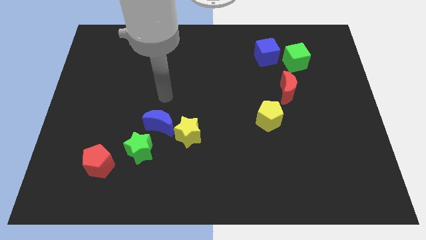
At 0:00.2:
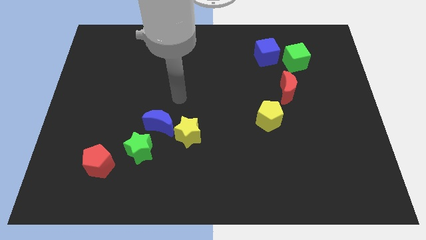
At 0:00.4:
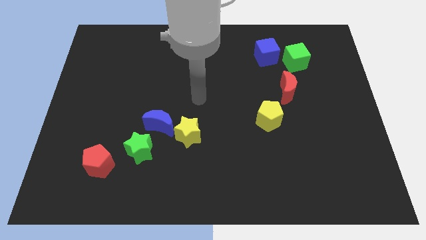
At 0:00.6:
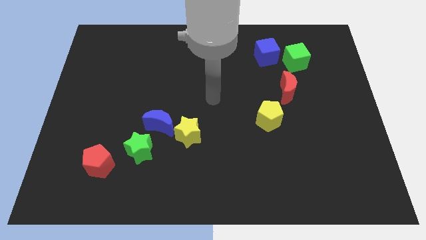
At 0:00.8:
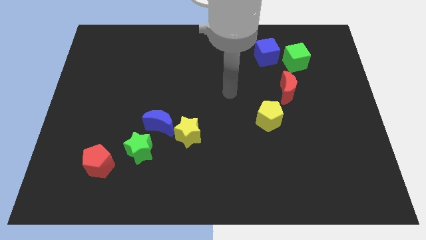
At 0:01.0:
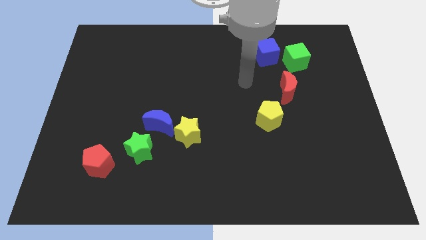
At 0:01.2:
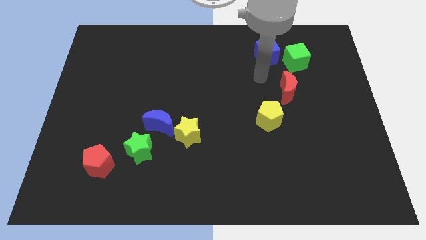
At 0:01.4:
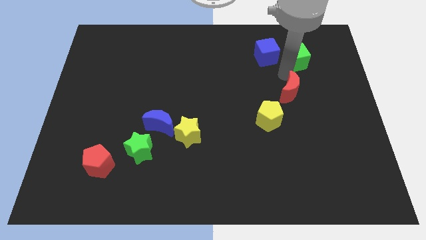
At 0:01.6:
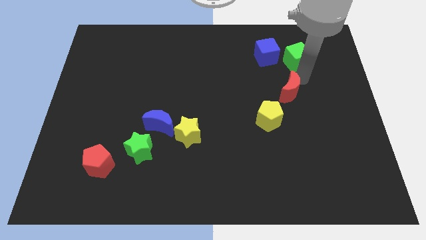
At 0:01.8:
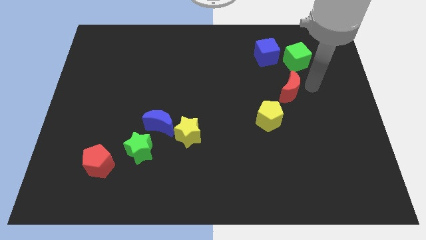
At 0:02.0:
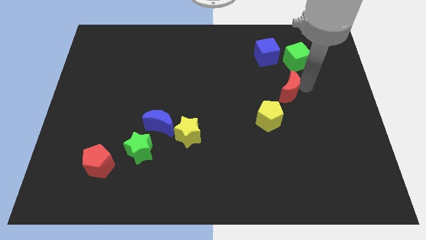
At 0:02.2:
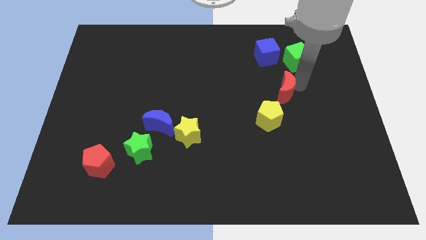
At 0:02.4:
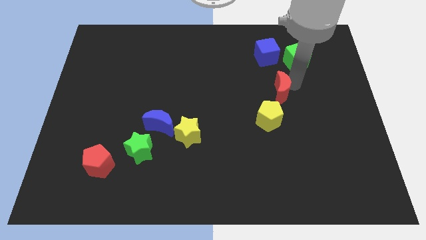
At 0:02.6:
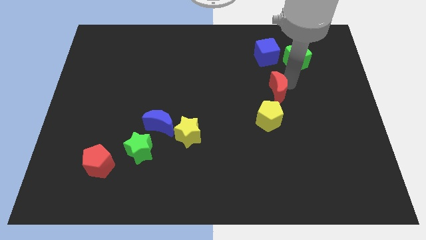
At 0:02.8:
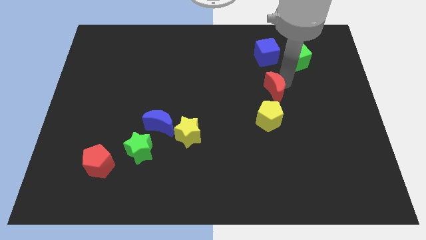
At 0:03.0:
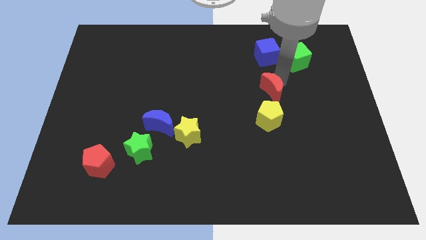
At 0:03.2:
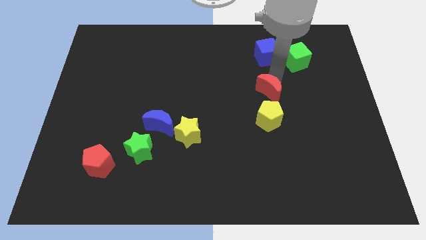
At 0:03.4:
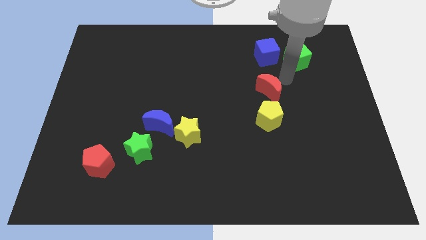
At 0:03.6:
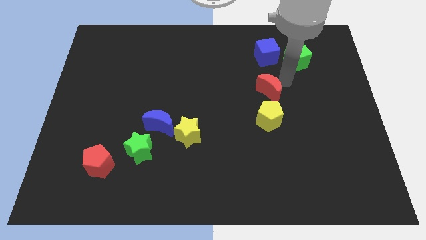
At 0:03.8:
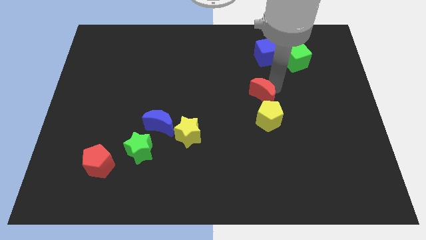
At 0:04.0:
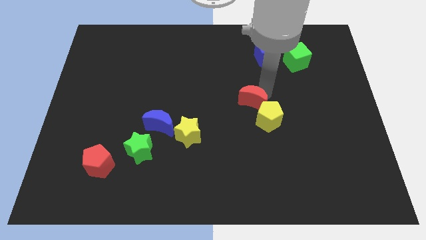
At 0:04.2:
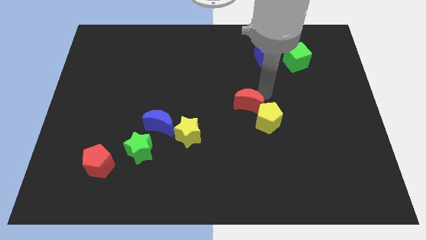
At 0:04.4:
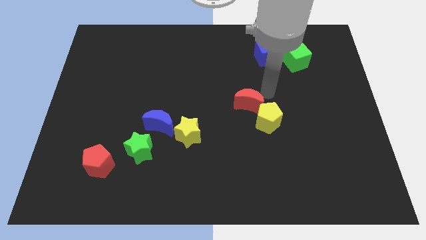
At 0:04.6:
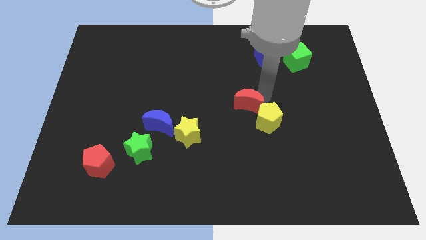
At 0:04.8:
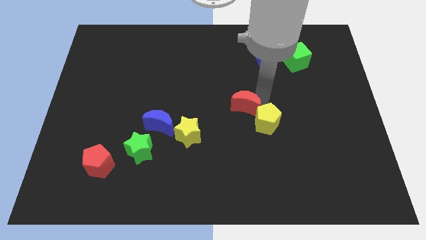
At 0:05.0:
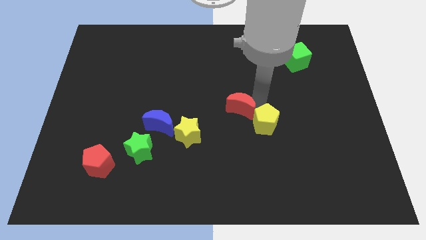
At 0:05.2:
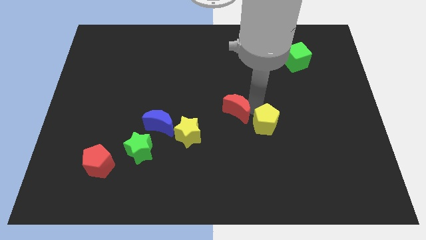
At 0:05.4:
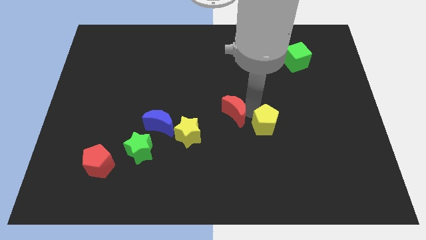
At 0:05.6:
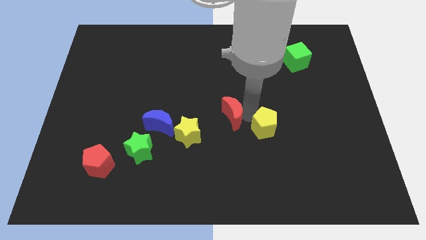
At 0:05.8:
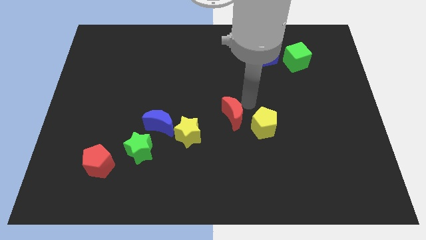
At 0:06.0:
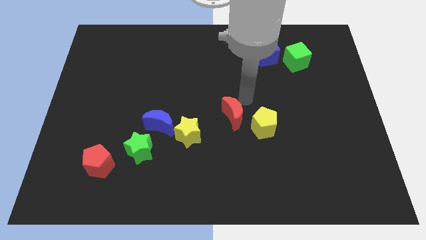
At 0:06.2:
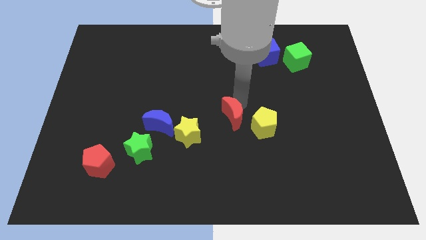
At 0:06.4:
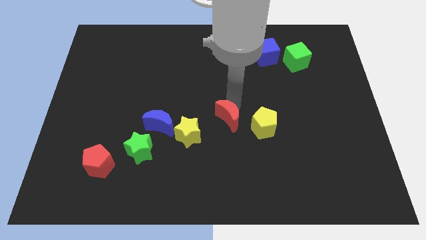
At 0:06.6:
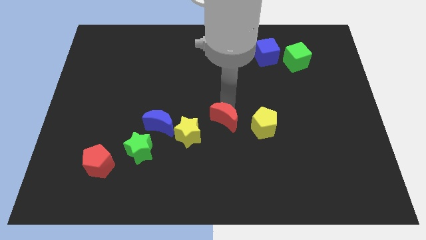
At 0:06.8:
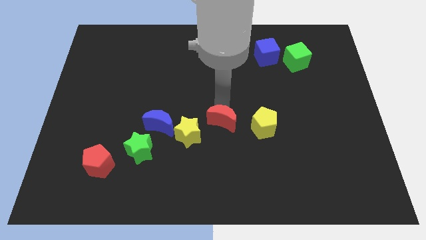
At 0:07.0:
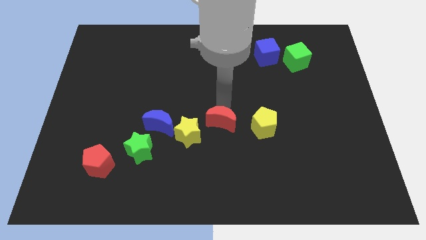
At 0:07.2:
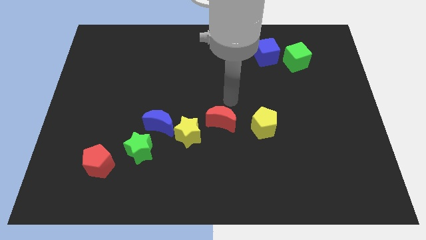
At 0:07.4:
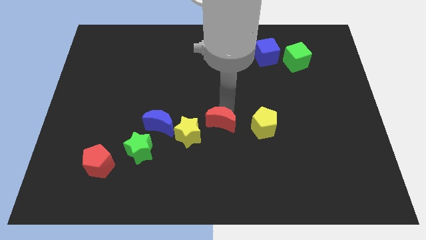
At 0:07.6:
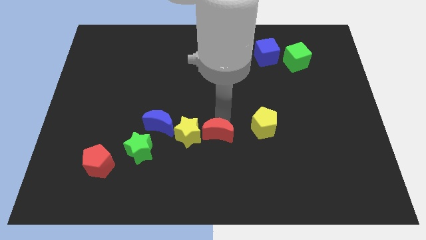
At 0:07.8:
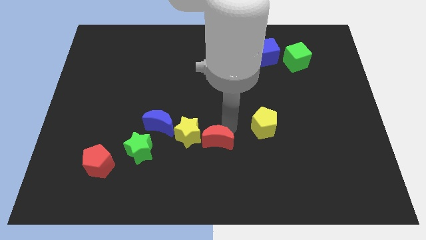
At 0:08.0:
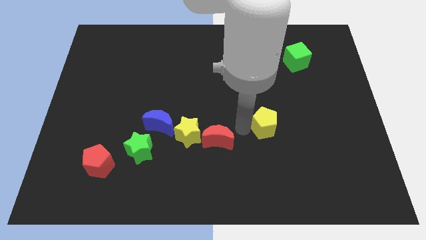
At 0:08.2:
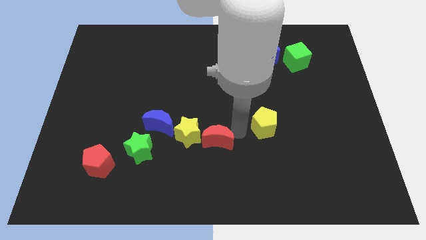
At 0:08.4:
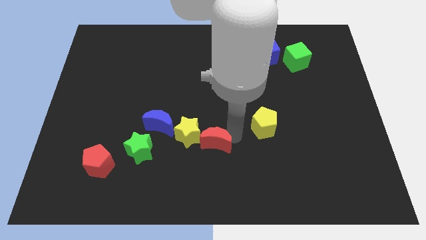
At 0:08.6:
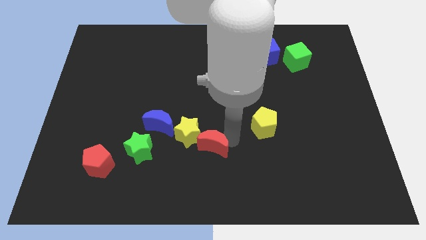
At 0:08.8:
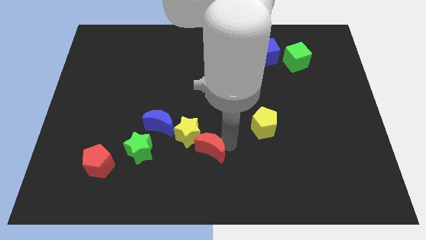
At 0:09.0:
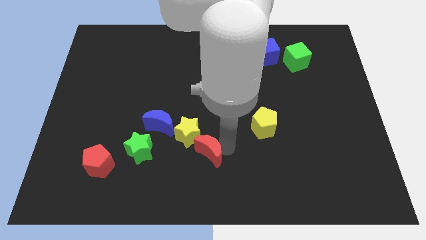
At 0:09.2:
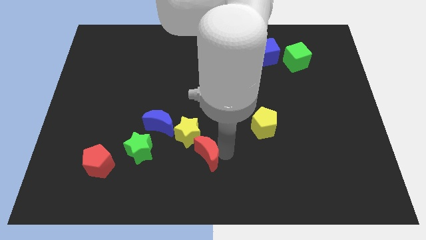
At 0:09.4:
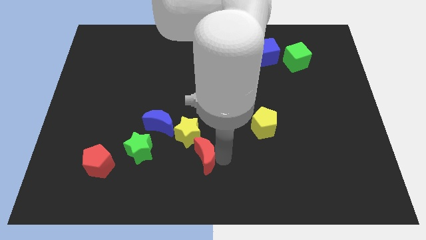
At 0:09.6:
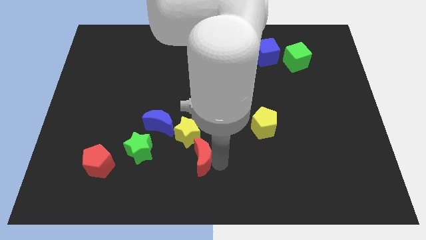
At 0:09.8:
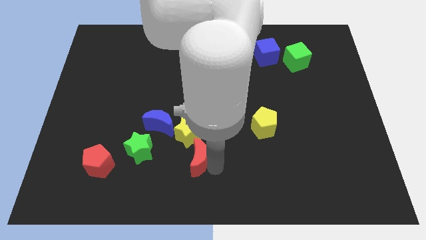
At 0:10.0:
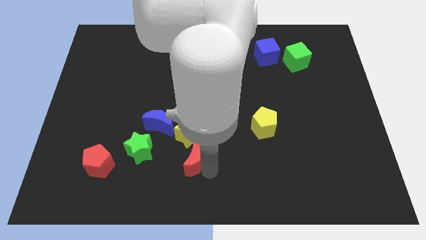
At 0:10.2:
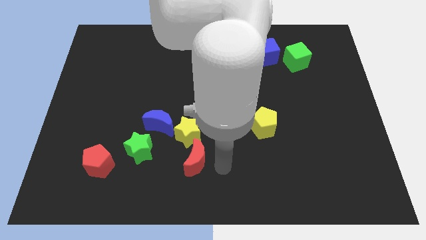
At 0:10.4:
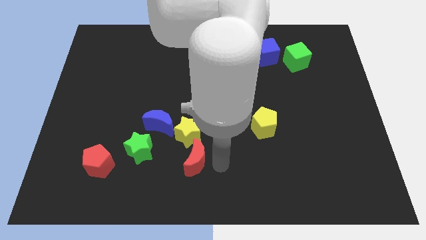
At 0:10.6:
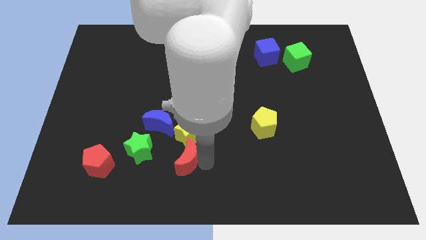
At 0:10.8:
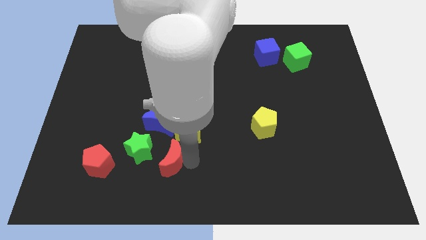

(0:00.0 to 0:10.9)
put the red moon right of the red pentagon
